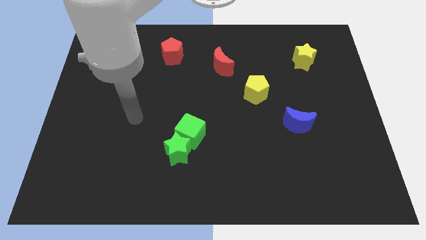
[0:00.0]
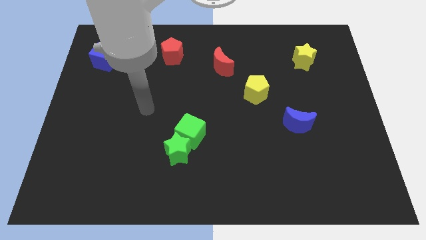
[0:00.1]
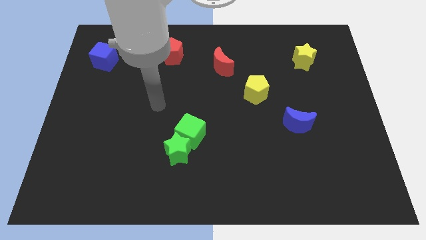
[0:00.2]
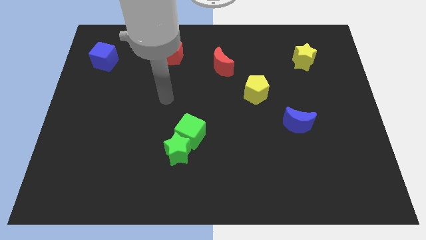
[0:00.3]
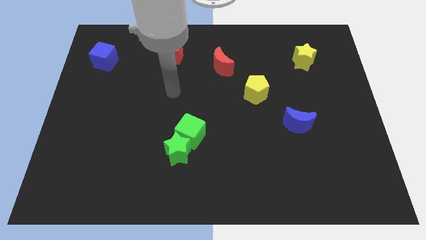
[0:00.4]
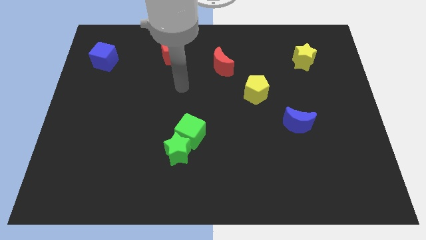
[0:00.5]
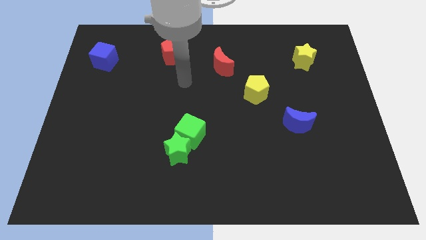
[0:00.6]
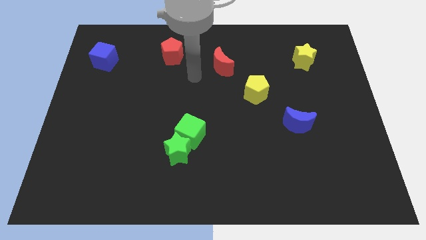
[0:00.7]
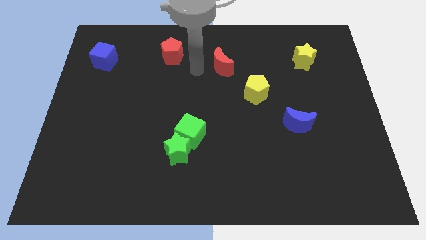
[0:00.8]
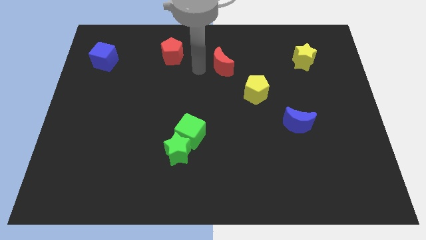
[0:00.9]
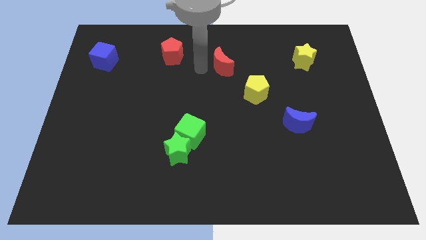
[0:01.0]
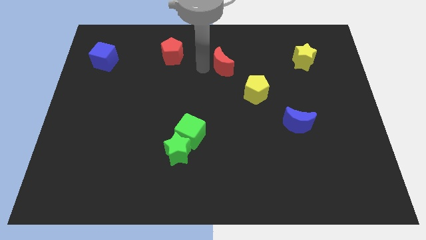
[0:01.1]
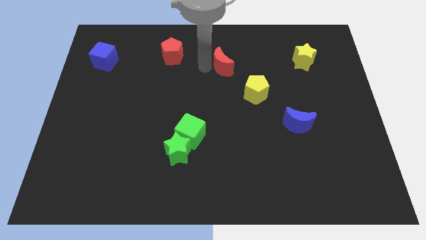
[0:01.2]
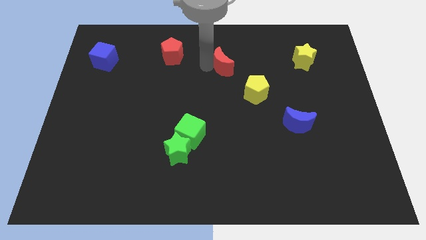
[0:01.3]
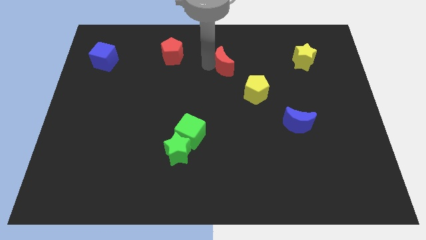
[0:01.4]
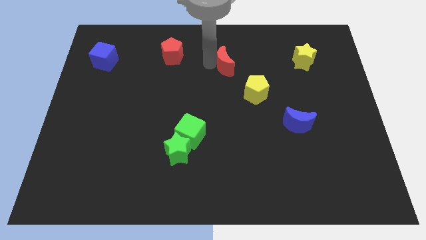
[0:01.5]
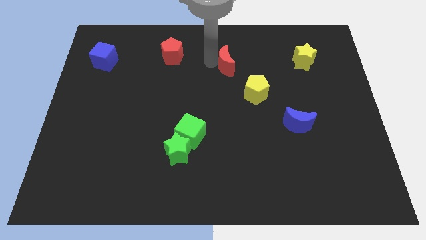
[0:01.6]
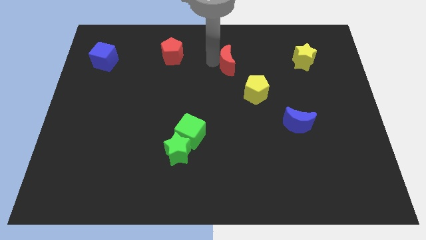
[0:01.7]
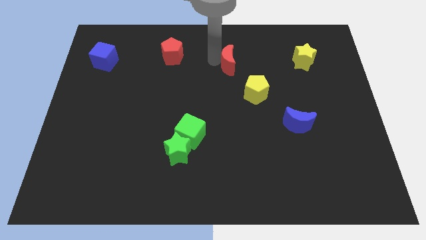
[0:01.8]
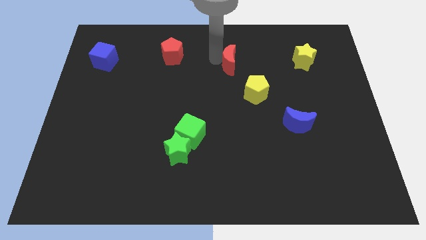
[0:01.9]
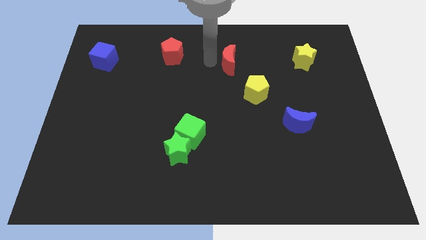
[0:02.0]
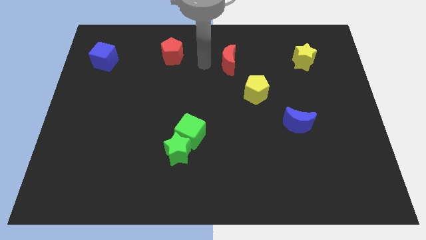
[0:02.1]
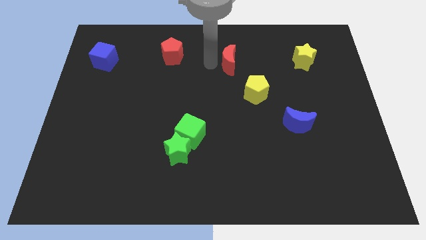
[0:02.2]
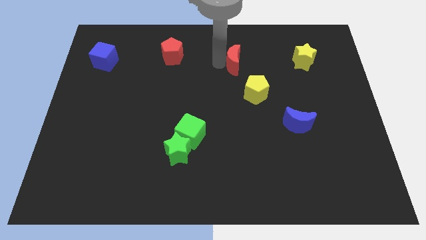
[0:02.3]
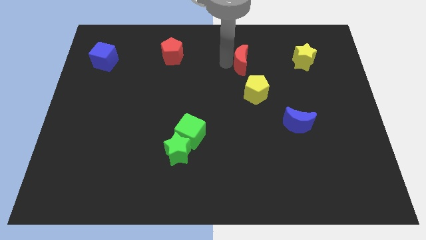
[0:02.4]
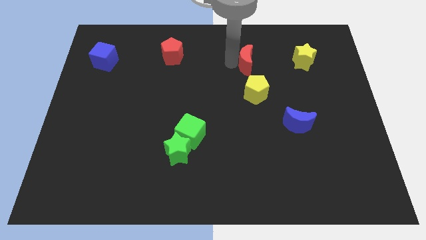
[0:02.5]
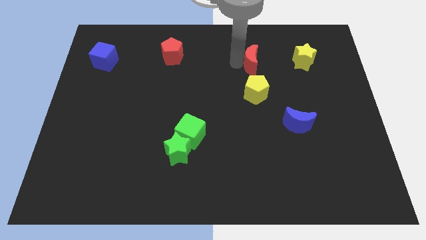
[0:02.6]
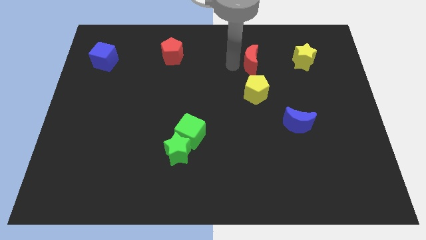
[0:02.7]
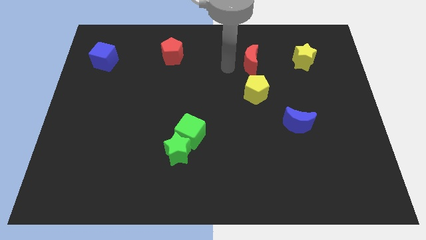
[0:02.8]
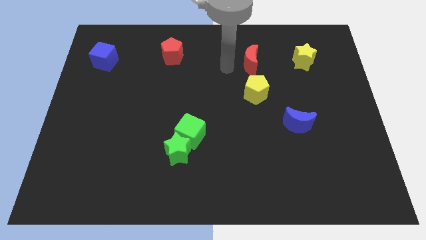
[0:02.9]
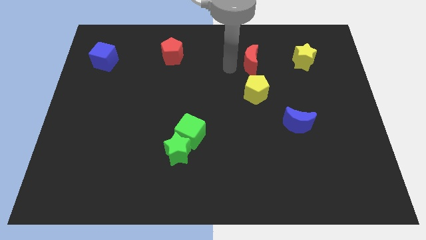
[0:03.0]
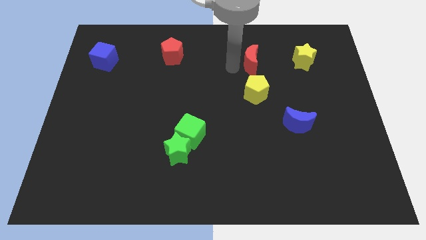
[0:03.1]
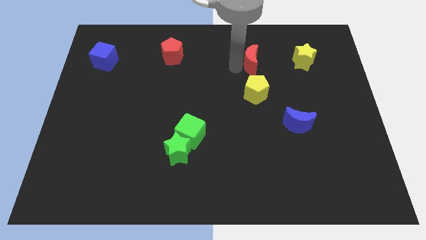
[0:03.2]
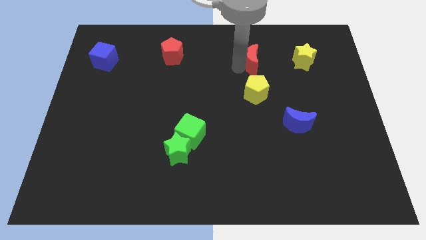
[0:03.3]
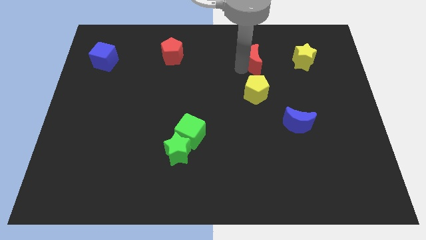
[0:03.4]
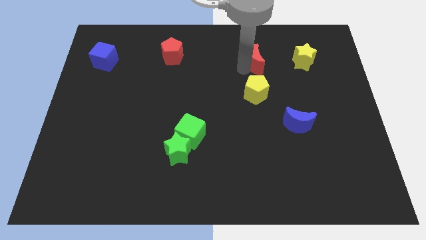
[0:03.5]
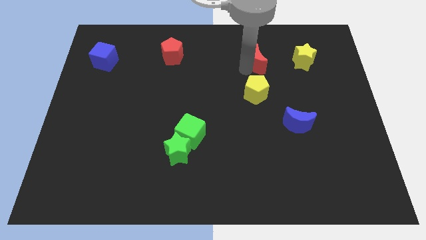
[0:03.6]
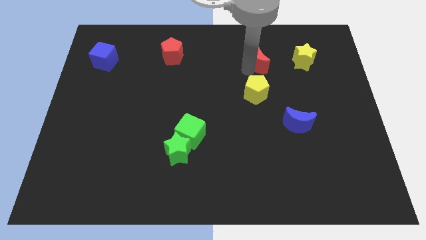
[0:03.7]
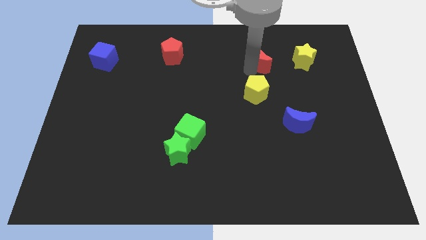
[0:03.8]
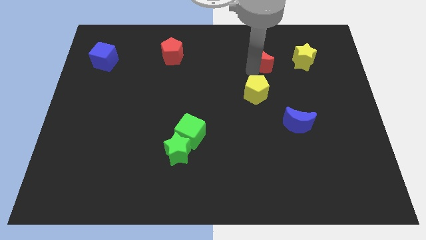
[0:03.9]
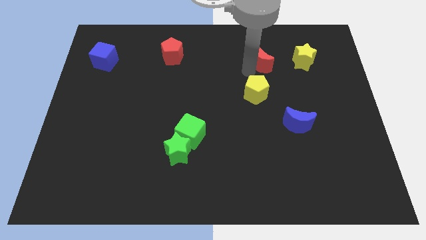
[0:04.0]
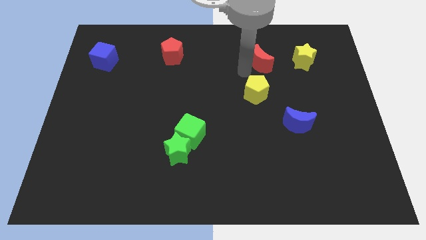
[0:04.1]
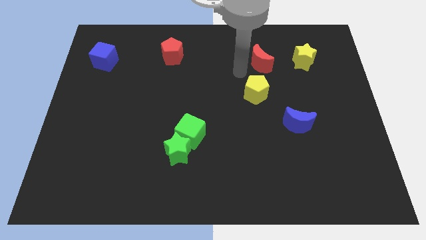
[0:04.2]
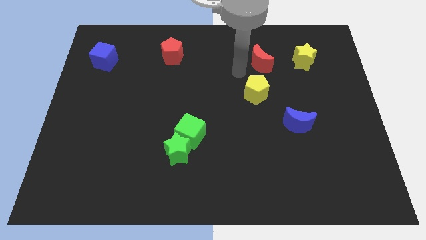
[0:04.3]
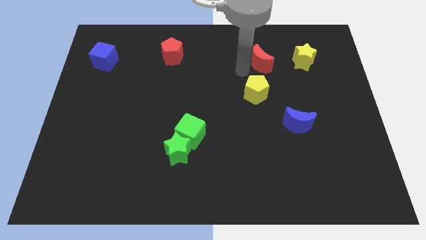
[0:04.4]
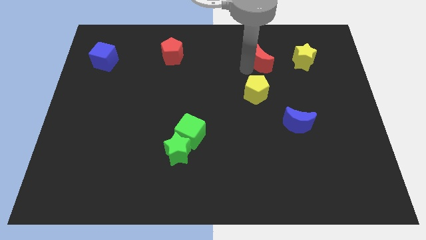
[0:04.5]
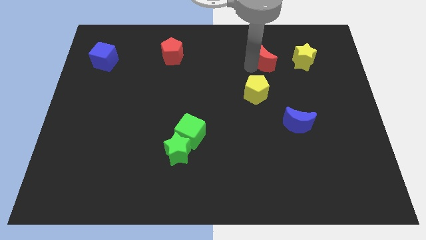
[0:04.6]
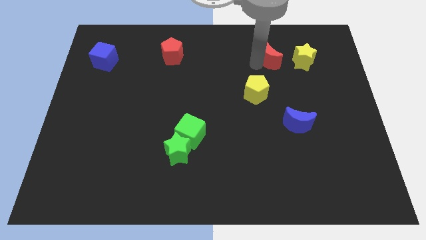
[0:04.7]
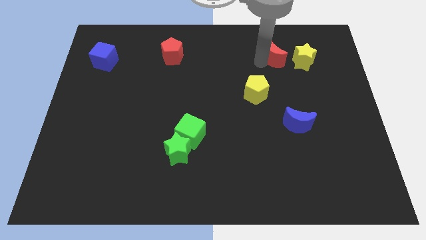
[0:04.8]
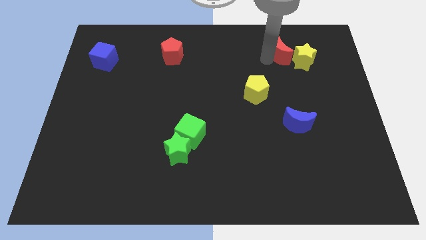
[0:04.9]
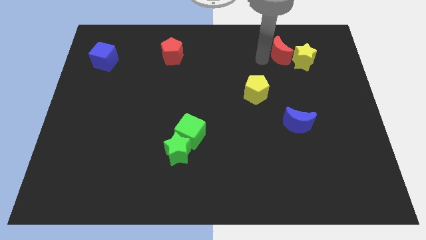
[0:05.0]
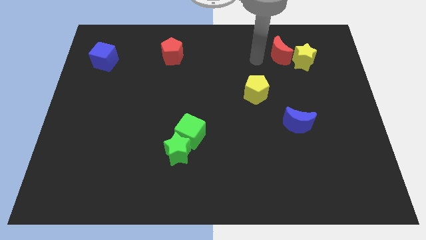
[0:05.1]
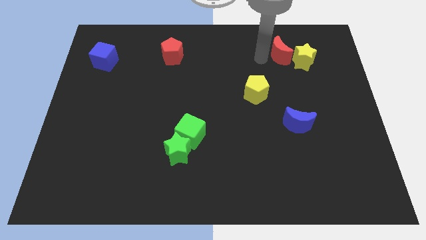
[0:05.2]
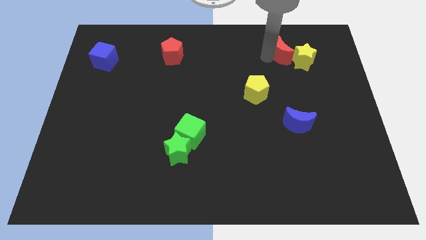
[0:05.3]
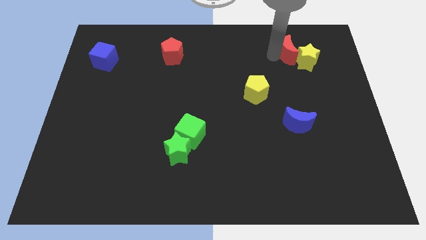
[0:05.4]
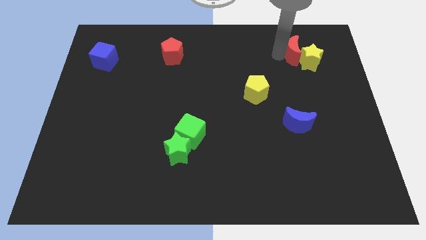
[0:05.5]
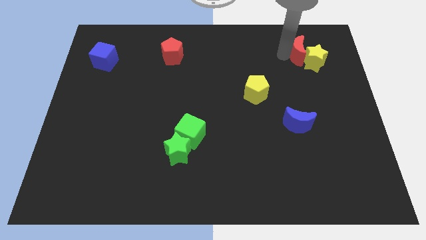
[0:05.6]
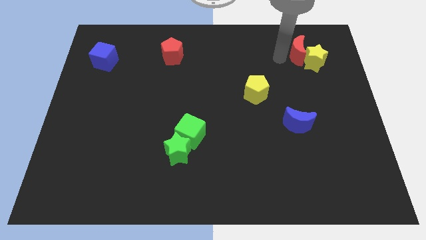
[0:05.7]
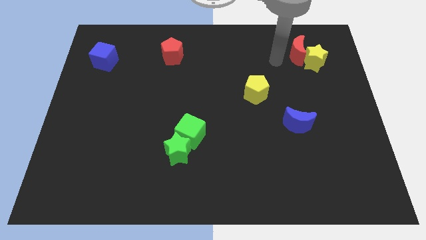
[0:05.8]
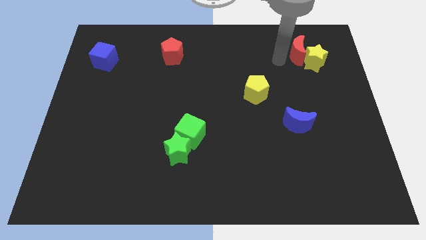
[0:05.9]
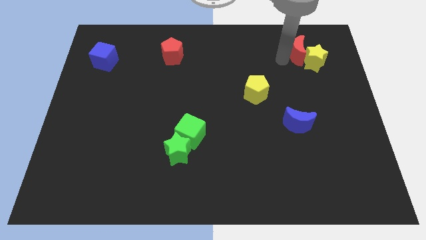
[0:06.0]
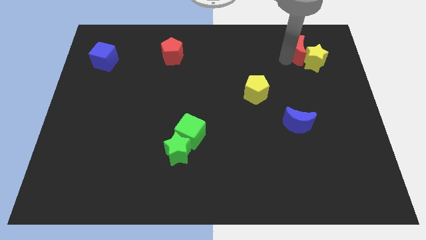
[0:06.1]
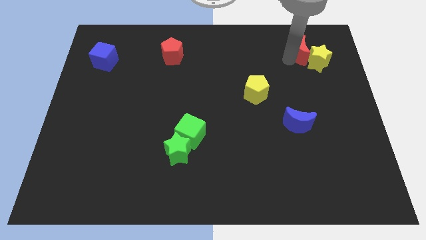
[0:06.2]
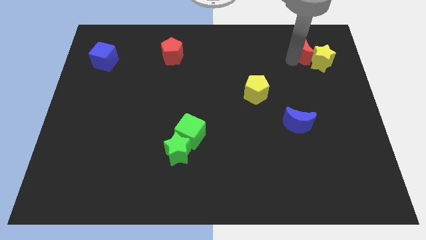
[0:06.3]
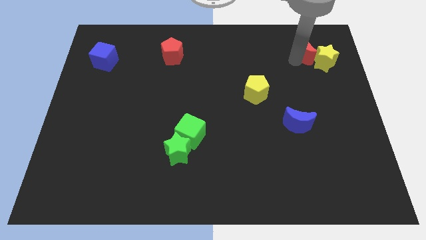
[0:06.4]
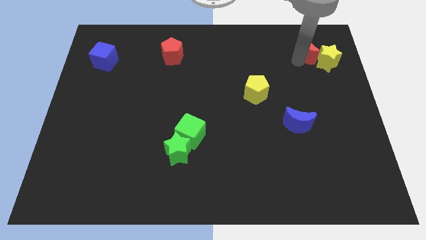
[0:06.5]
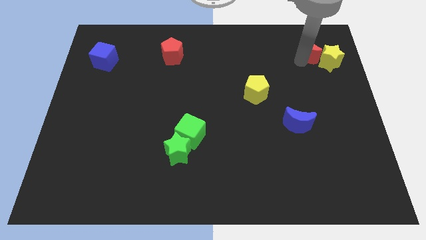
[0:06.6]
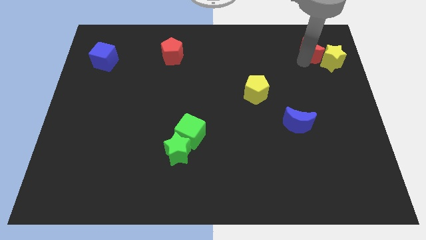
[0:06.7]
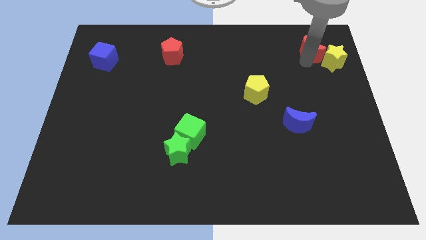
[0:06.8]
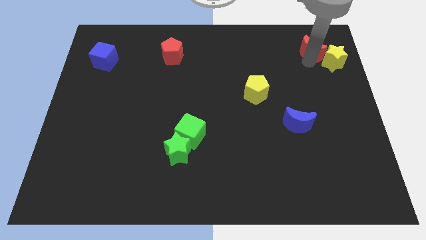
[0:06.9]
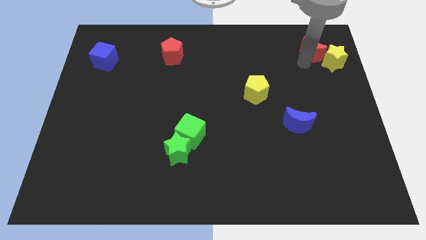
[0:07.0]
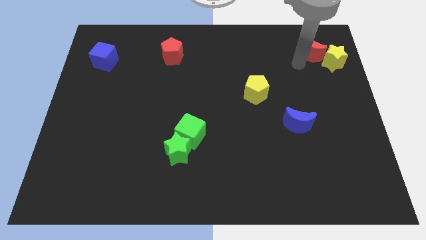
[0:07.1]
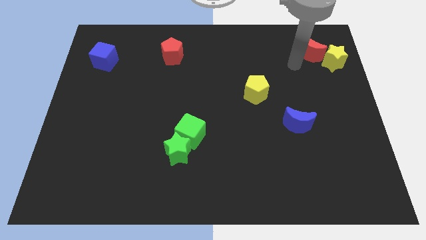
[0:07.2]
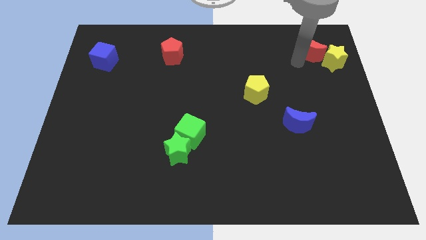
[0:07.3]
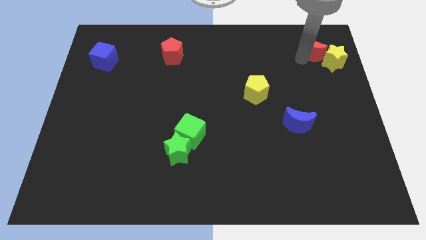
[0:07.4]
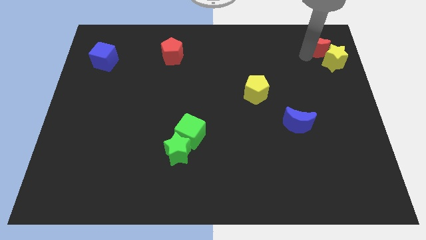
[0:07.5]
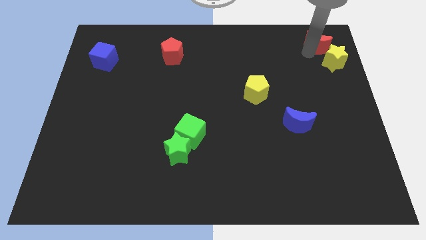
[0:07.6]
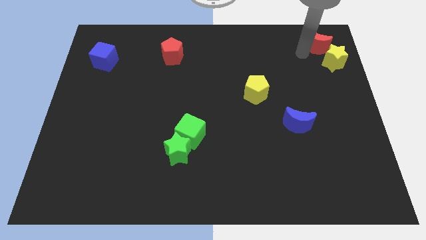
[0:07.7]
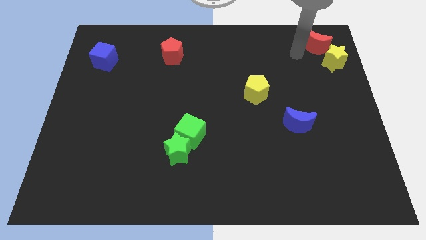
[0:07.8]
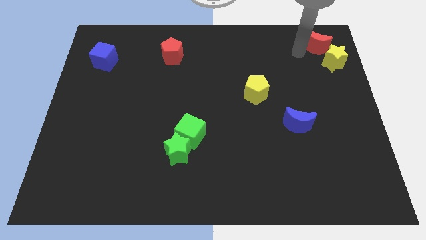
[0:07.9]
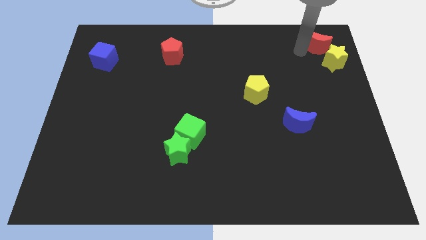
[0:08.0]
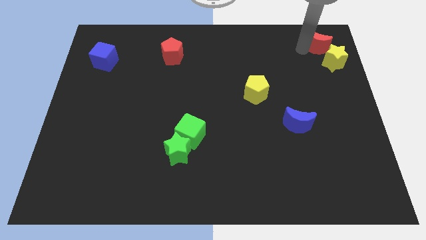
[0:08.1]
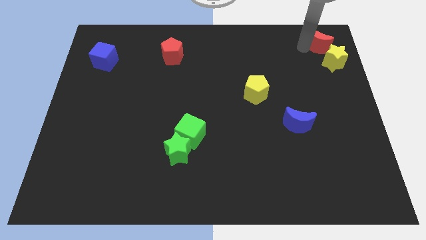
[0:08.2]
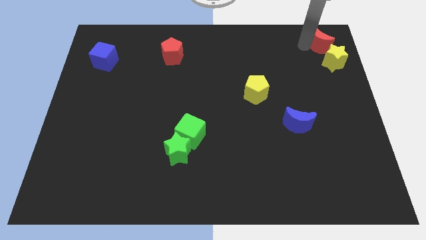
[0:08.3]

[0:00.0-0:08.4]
slide the red moon to the top right corner
